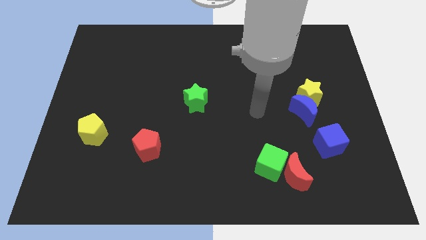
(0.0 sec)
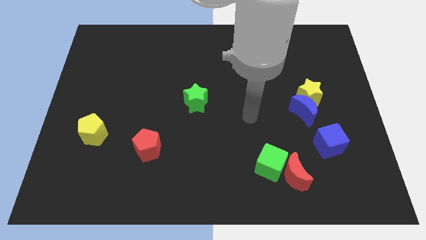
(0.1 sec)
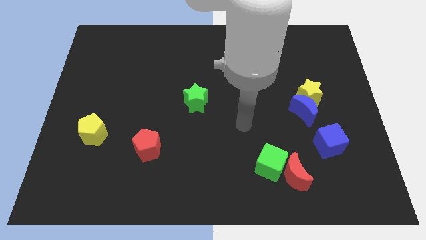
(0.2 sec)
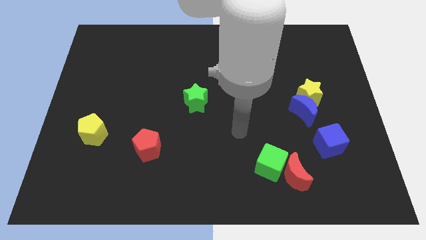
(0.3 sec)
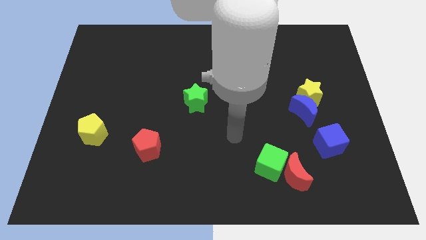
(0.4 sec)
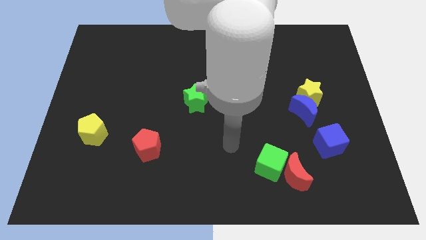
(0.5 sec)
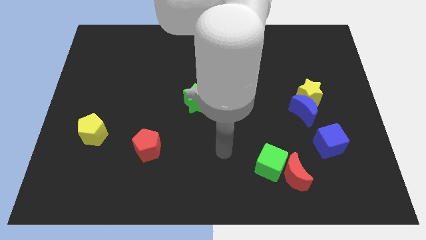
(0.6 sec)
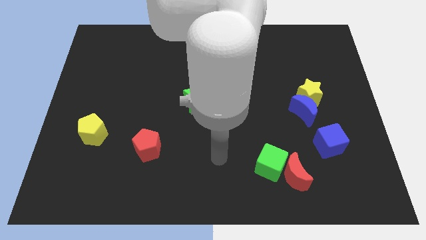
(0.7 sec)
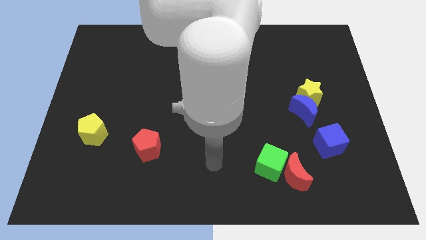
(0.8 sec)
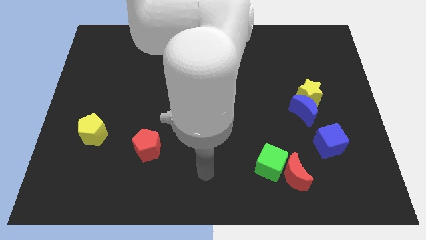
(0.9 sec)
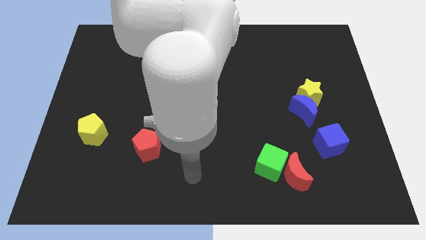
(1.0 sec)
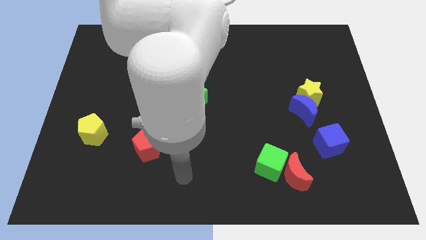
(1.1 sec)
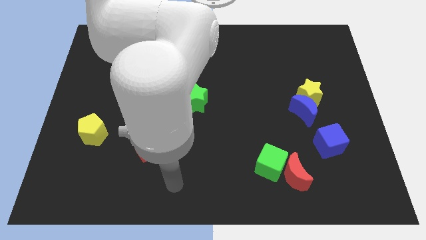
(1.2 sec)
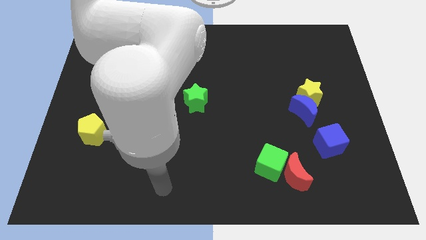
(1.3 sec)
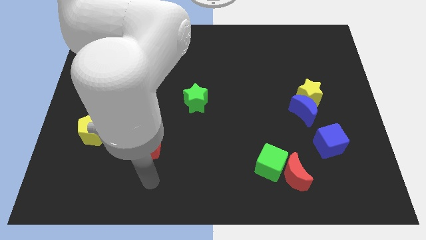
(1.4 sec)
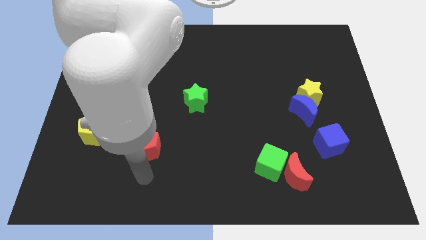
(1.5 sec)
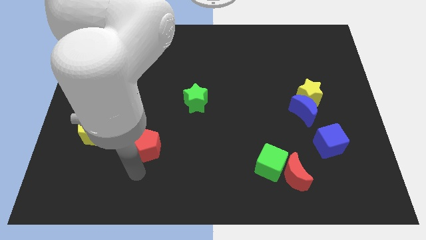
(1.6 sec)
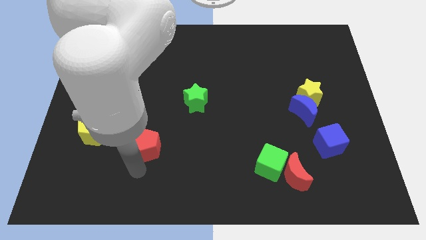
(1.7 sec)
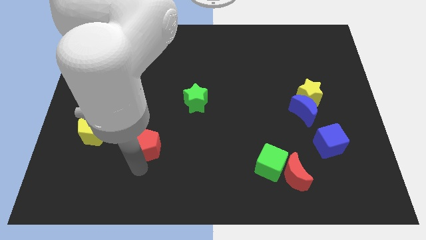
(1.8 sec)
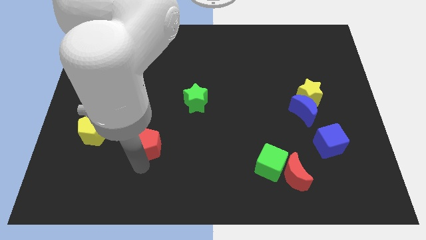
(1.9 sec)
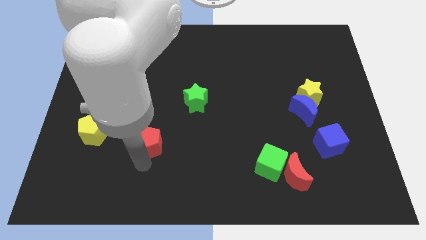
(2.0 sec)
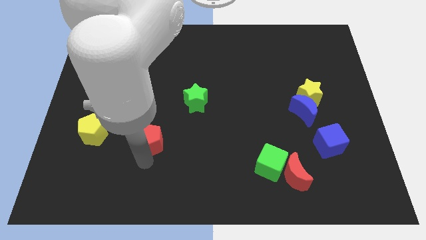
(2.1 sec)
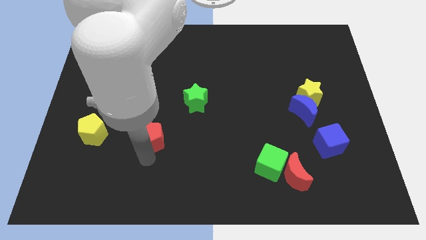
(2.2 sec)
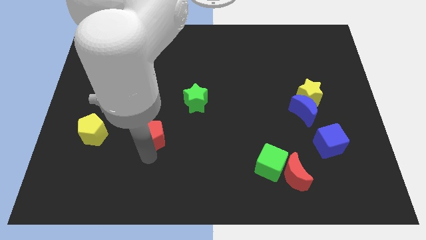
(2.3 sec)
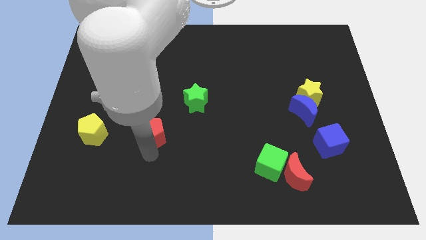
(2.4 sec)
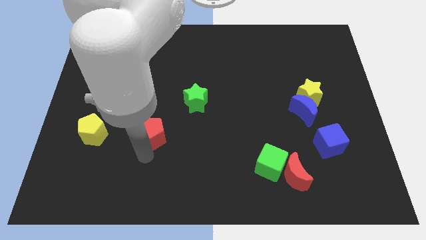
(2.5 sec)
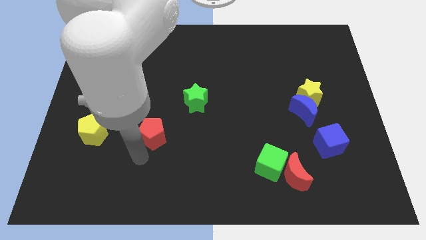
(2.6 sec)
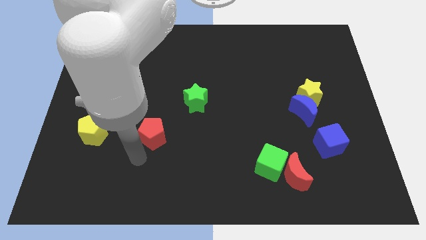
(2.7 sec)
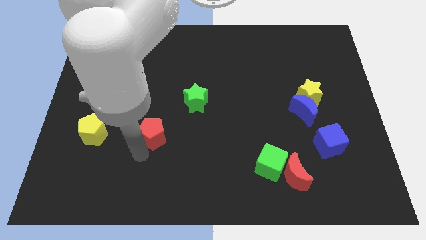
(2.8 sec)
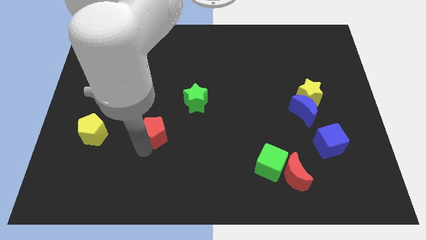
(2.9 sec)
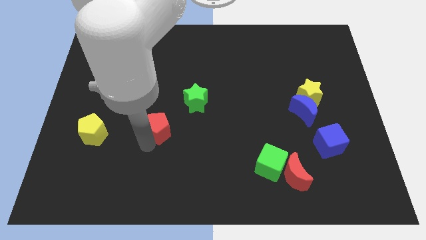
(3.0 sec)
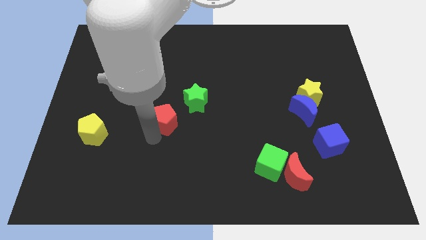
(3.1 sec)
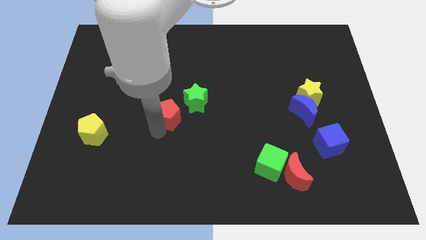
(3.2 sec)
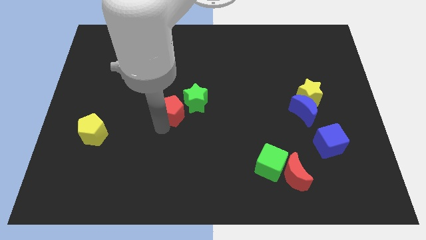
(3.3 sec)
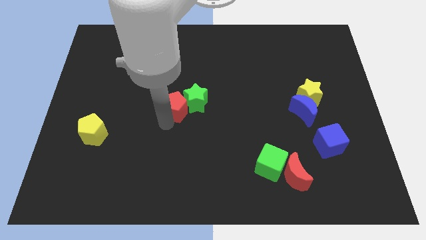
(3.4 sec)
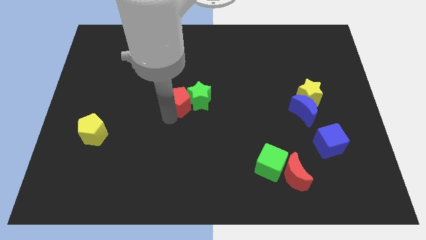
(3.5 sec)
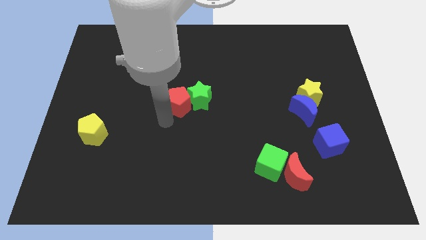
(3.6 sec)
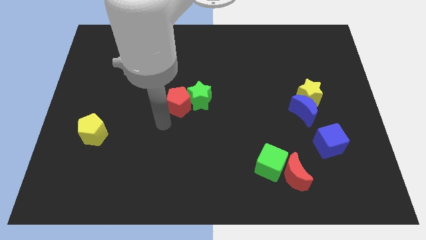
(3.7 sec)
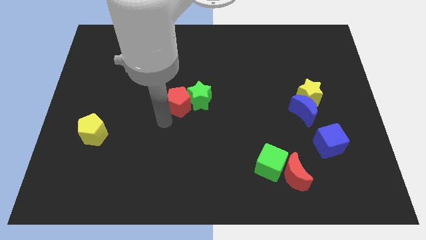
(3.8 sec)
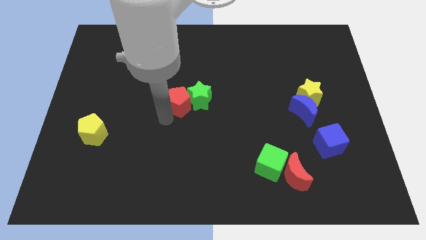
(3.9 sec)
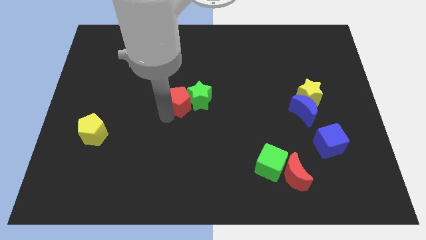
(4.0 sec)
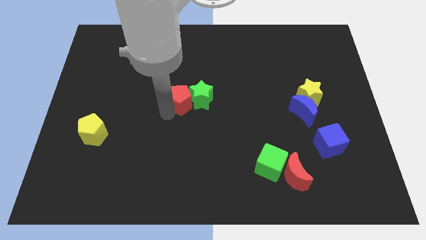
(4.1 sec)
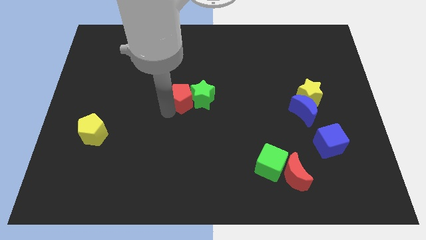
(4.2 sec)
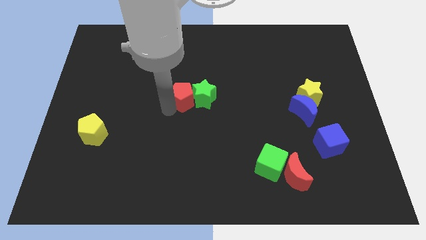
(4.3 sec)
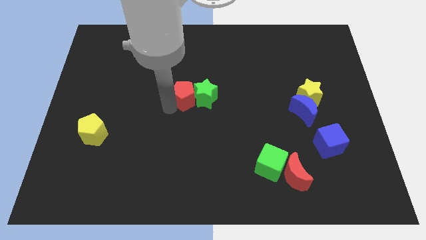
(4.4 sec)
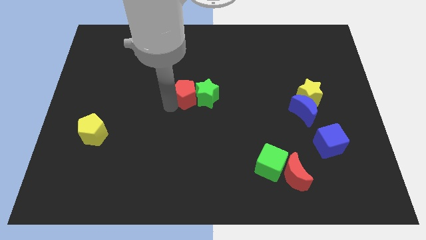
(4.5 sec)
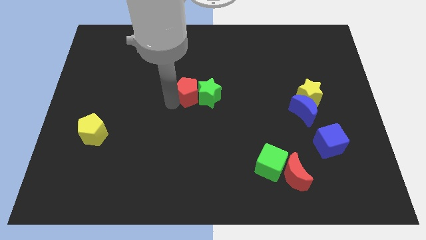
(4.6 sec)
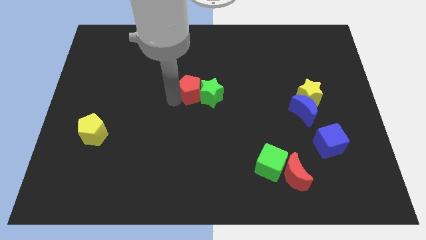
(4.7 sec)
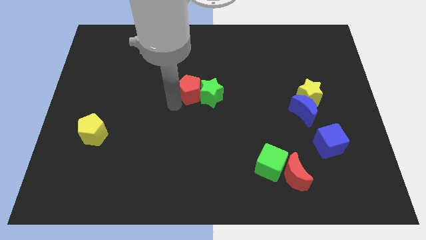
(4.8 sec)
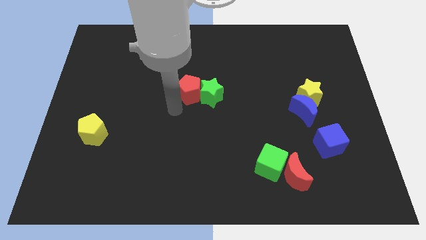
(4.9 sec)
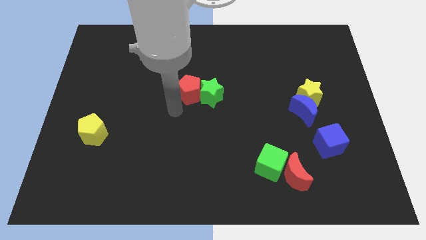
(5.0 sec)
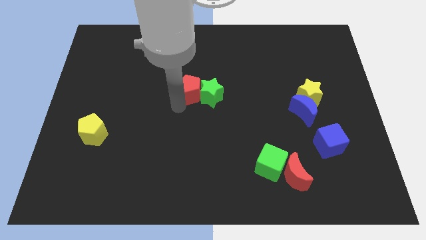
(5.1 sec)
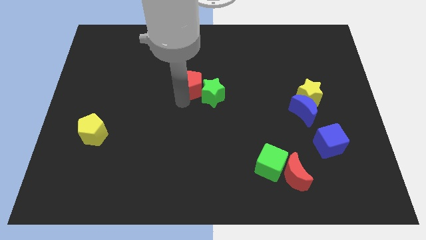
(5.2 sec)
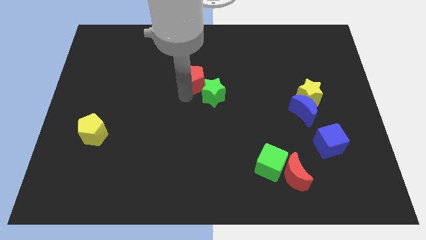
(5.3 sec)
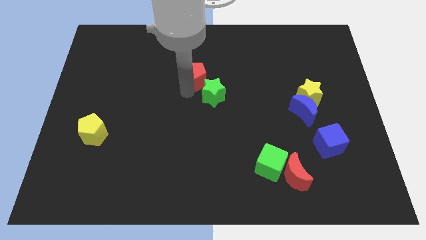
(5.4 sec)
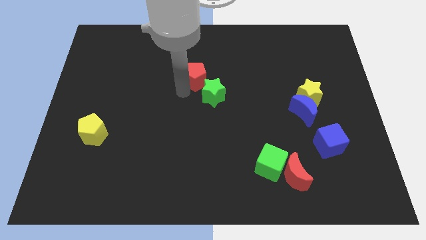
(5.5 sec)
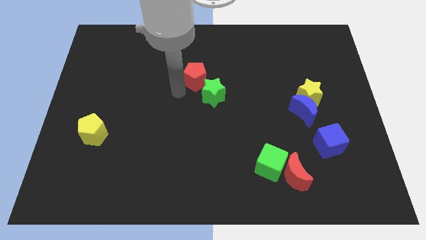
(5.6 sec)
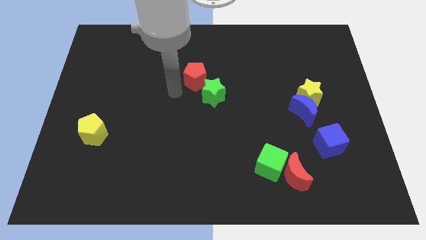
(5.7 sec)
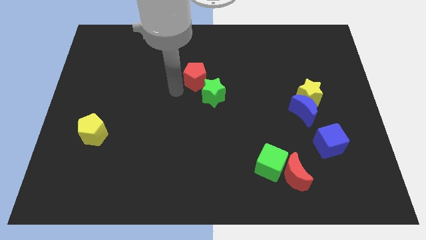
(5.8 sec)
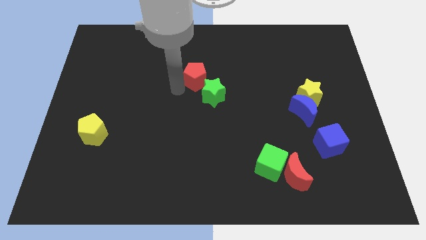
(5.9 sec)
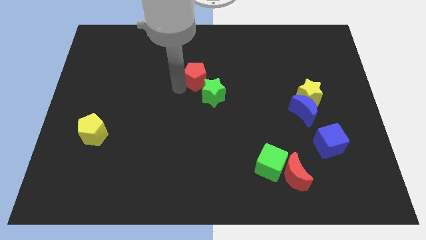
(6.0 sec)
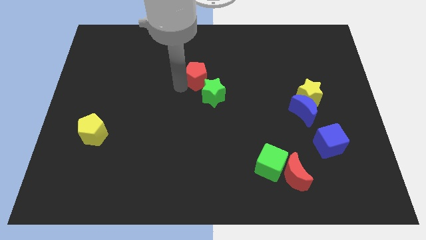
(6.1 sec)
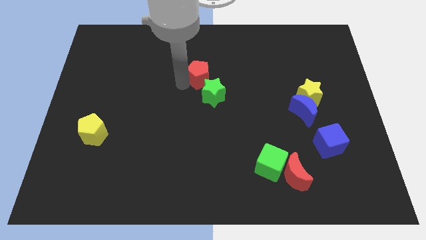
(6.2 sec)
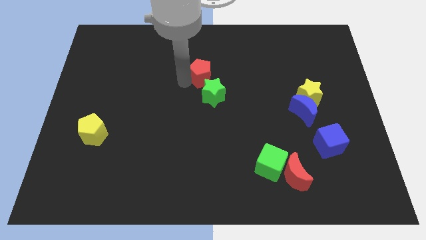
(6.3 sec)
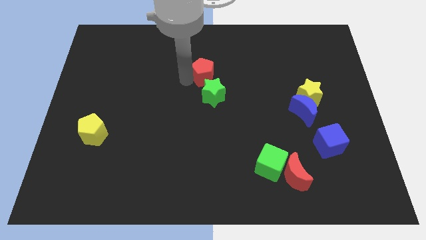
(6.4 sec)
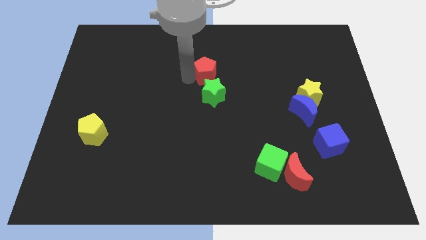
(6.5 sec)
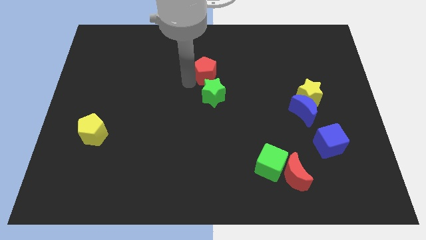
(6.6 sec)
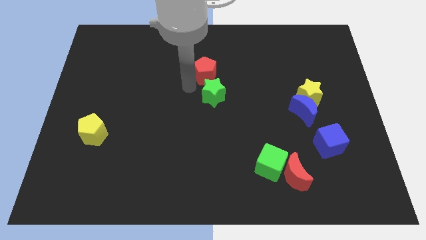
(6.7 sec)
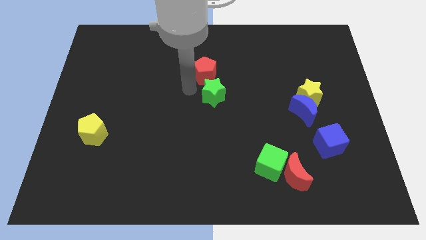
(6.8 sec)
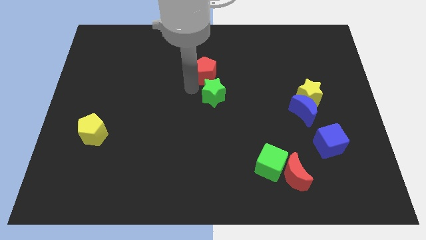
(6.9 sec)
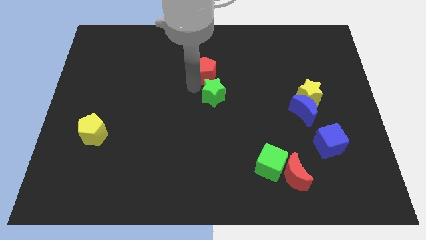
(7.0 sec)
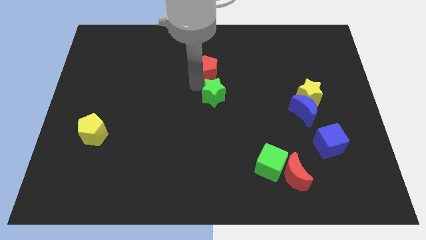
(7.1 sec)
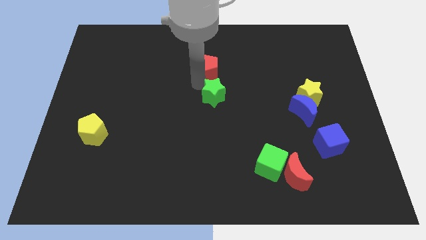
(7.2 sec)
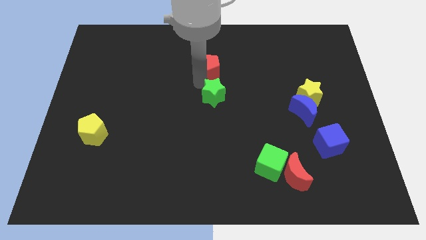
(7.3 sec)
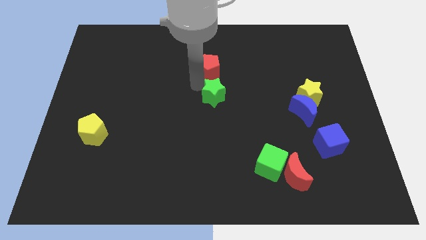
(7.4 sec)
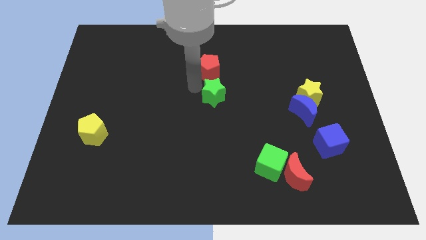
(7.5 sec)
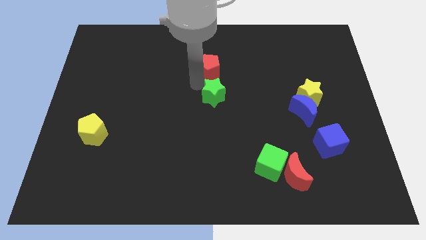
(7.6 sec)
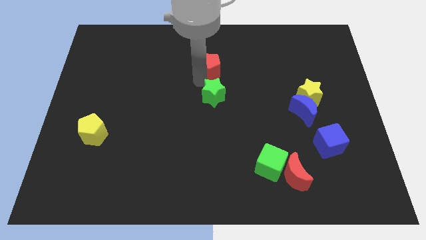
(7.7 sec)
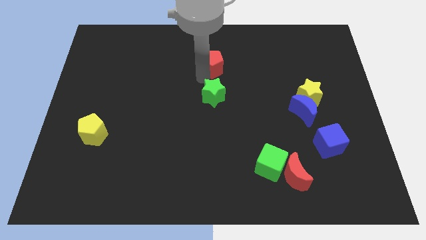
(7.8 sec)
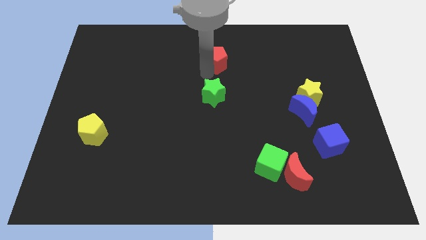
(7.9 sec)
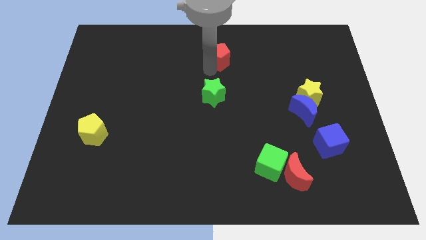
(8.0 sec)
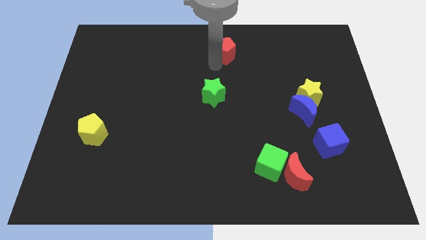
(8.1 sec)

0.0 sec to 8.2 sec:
put the red pentagon to the top side
